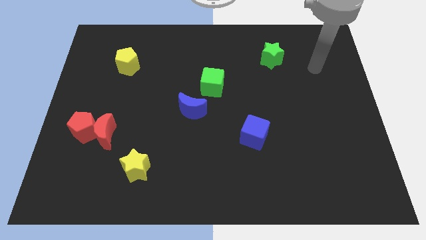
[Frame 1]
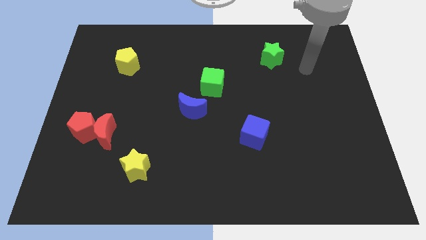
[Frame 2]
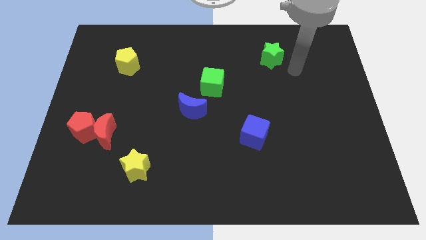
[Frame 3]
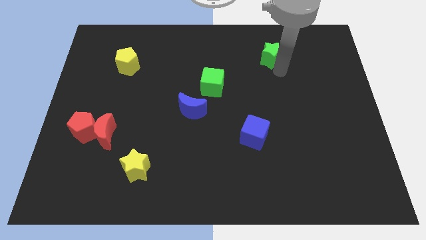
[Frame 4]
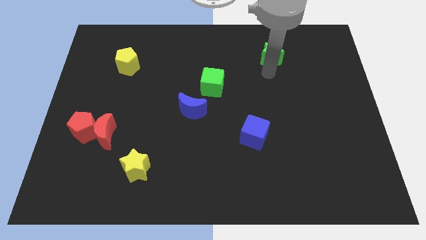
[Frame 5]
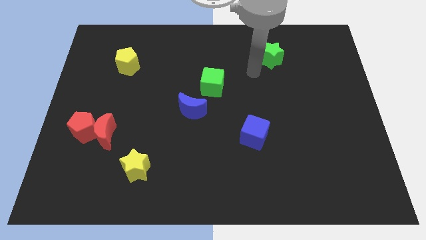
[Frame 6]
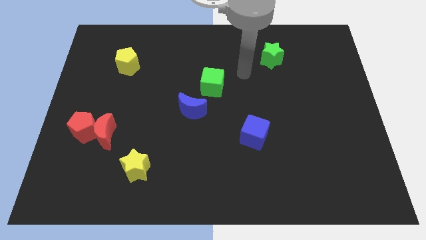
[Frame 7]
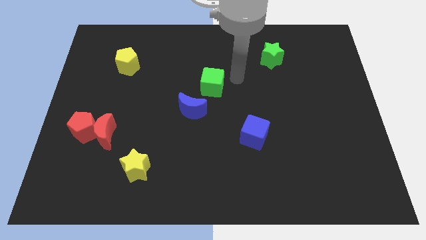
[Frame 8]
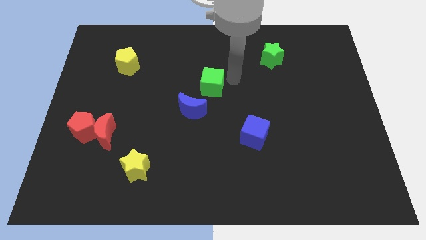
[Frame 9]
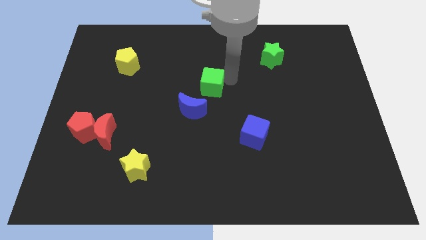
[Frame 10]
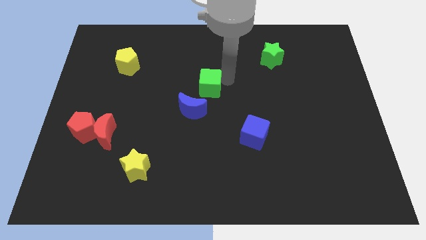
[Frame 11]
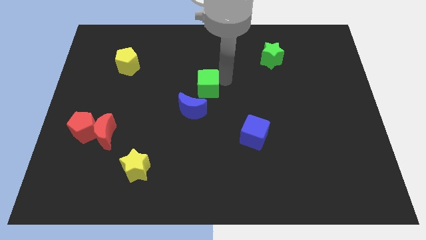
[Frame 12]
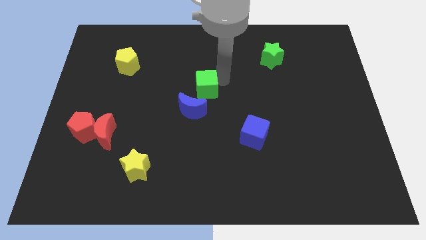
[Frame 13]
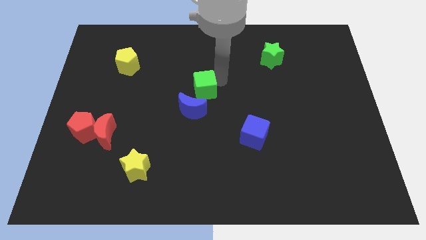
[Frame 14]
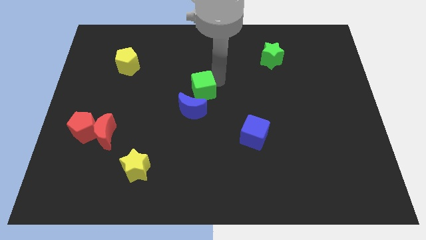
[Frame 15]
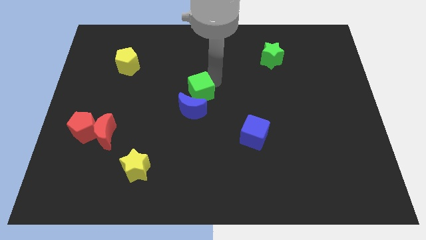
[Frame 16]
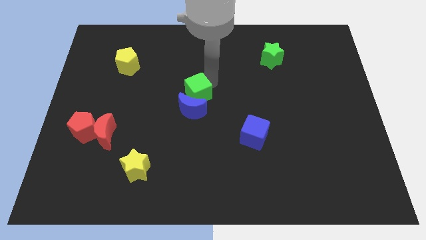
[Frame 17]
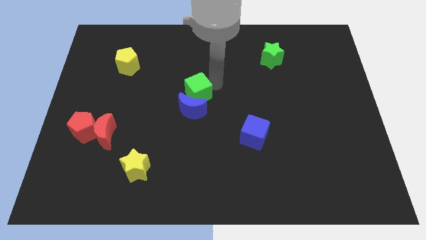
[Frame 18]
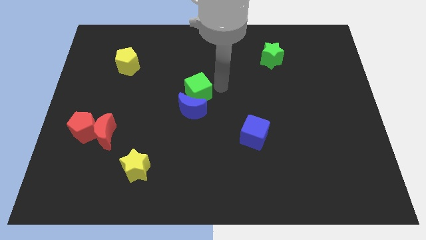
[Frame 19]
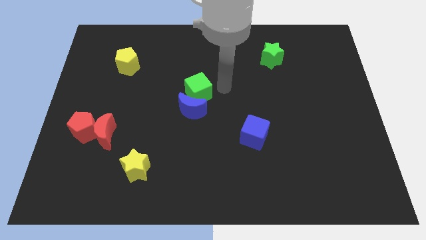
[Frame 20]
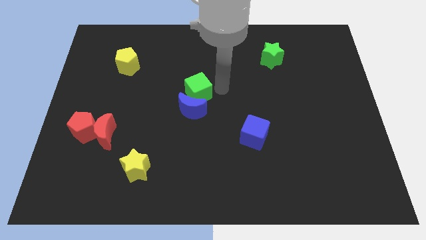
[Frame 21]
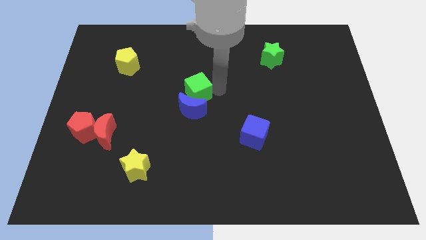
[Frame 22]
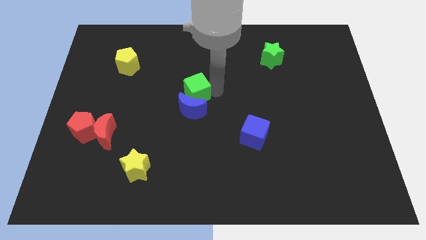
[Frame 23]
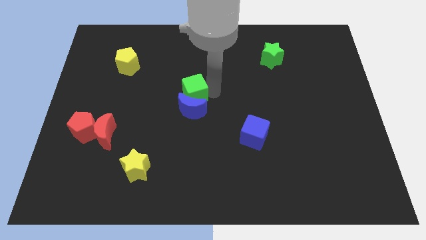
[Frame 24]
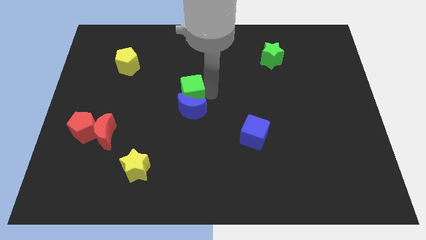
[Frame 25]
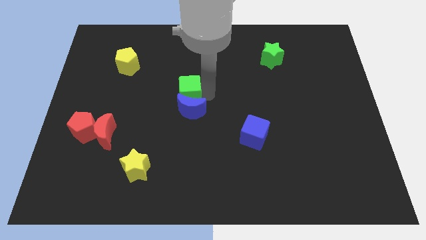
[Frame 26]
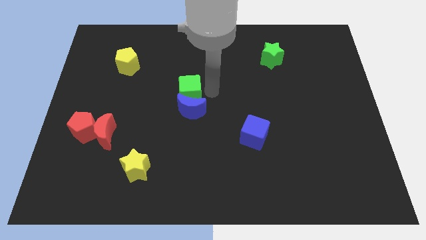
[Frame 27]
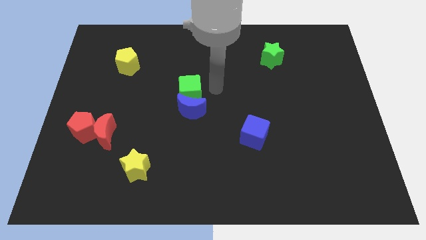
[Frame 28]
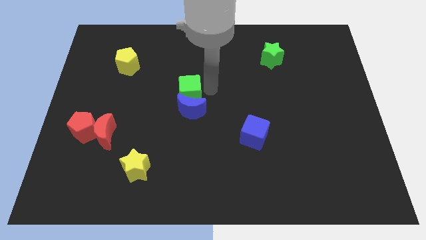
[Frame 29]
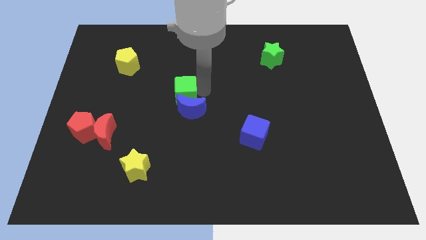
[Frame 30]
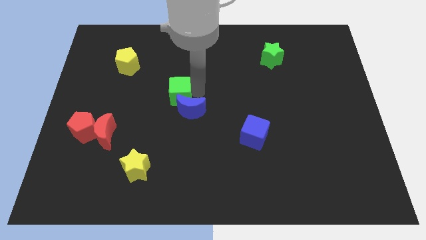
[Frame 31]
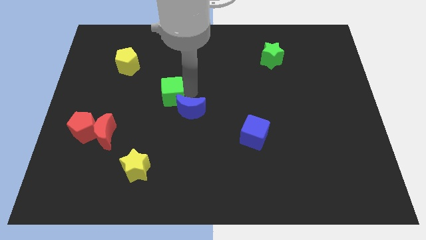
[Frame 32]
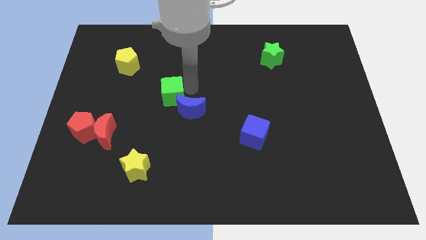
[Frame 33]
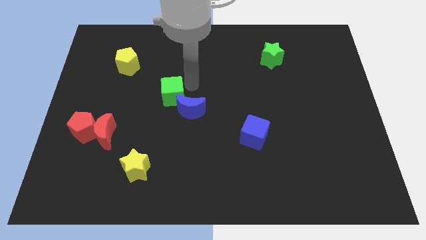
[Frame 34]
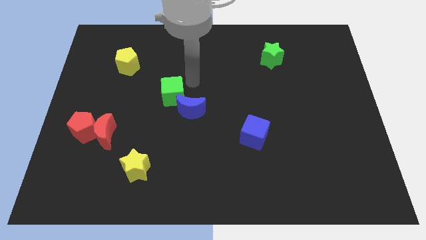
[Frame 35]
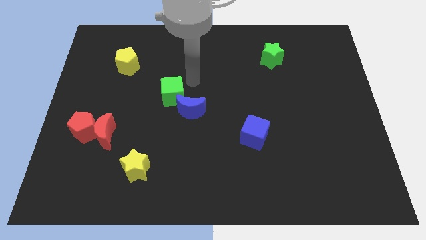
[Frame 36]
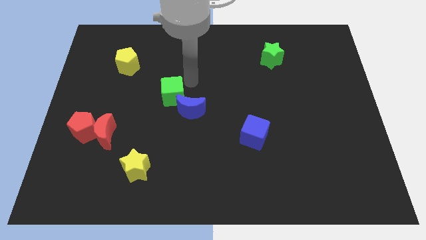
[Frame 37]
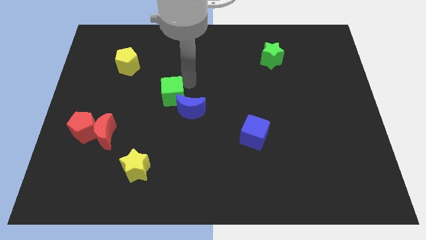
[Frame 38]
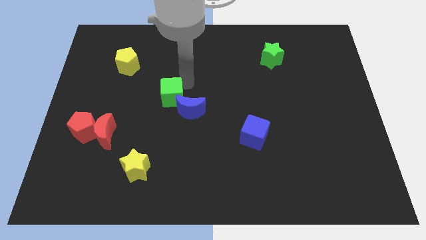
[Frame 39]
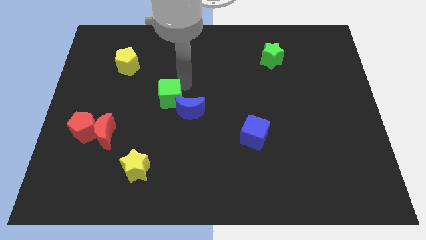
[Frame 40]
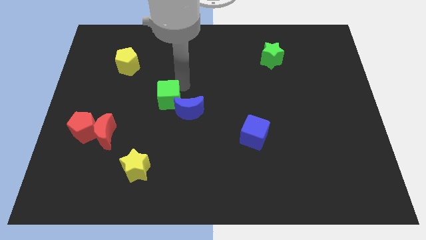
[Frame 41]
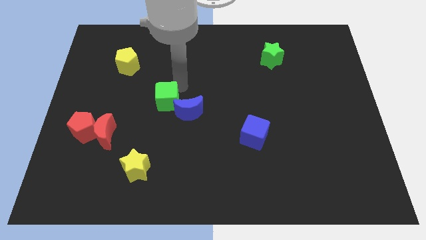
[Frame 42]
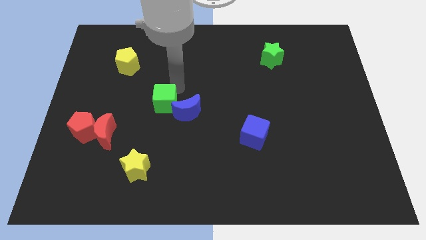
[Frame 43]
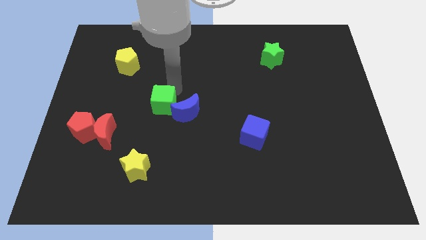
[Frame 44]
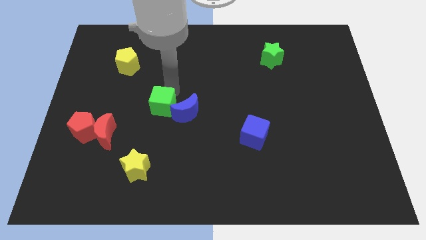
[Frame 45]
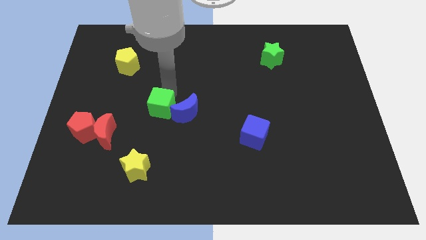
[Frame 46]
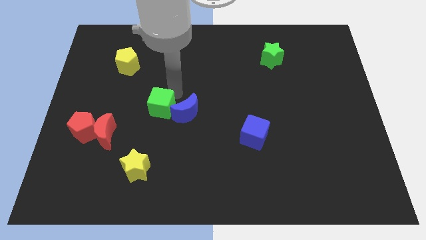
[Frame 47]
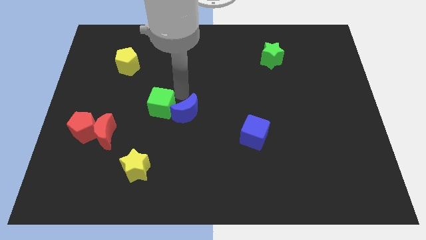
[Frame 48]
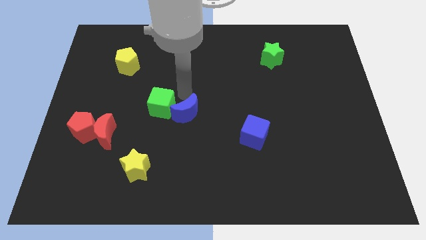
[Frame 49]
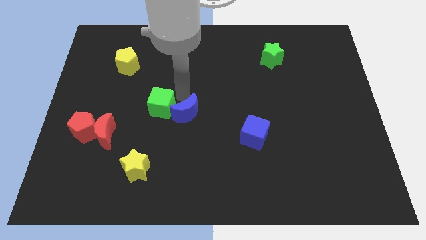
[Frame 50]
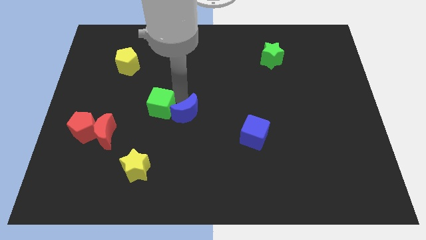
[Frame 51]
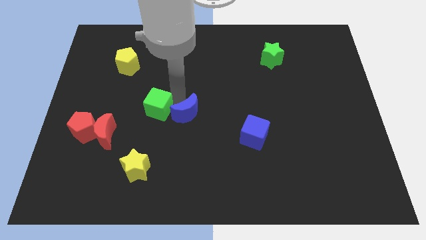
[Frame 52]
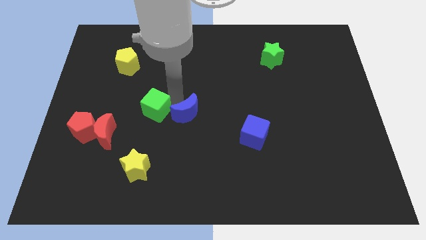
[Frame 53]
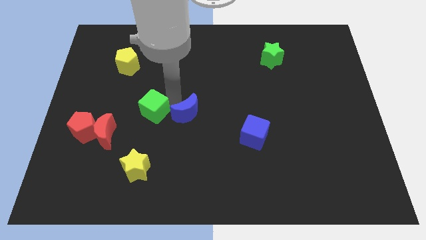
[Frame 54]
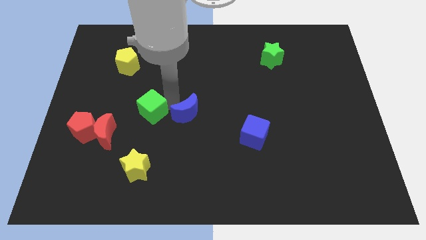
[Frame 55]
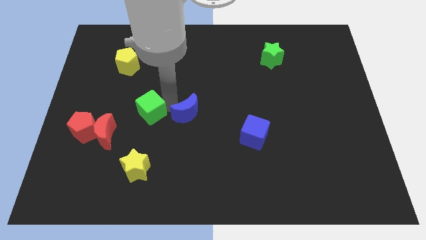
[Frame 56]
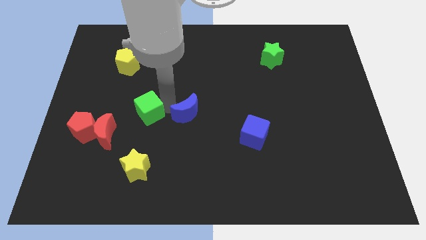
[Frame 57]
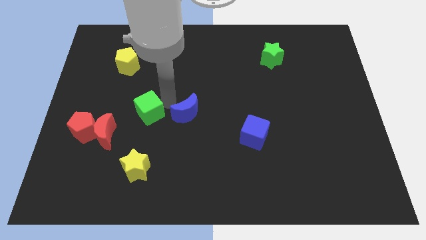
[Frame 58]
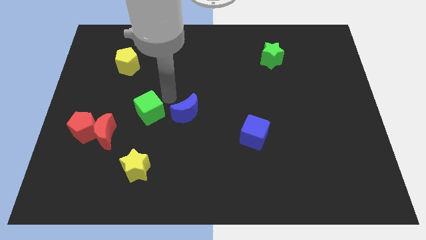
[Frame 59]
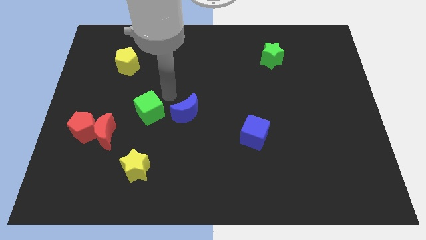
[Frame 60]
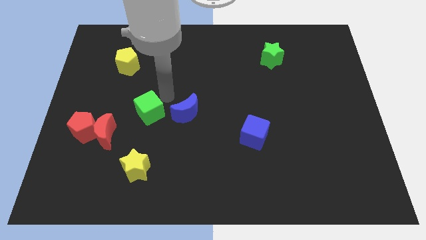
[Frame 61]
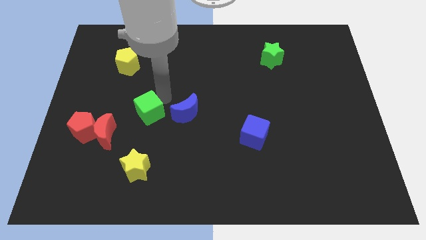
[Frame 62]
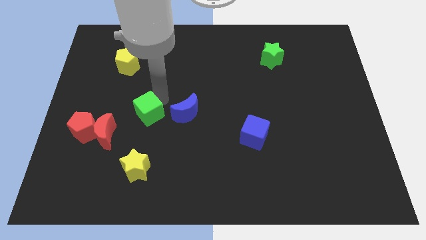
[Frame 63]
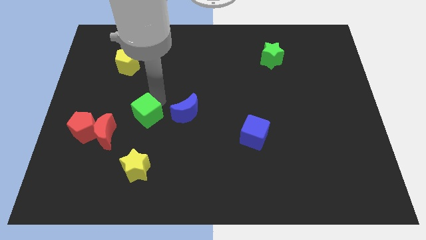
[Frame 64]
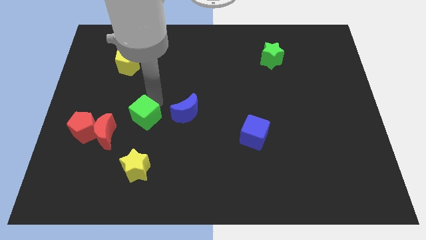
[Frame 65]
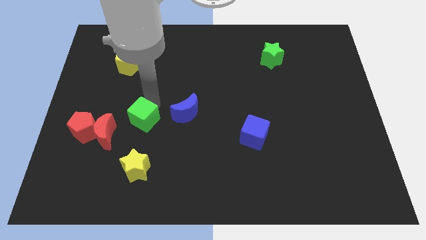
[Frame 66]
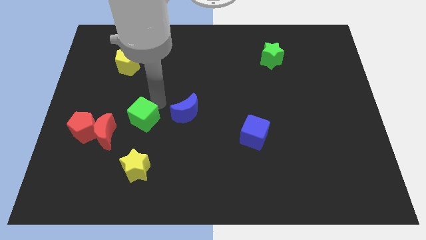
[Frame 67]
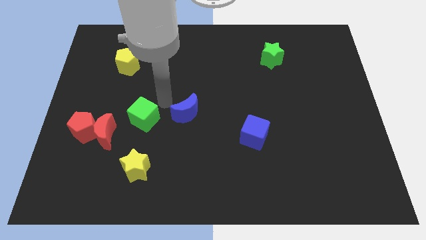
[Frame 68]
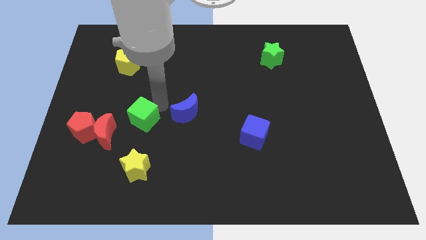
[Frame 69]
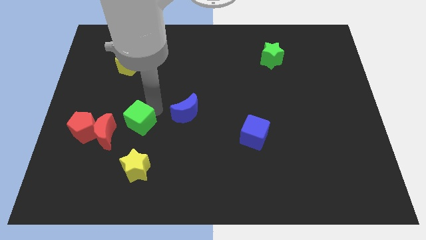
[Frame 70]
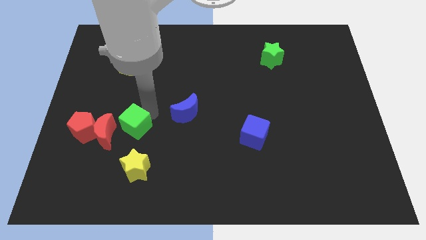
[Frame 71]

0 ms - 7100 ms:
push the green cube diagonally down and left

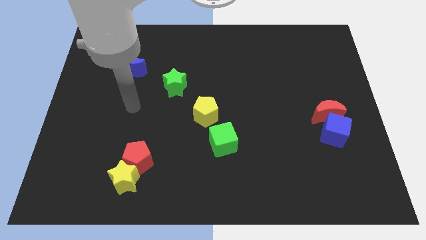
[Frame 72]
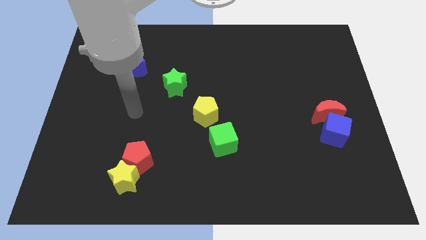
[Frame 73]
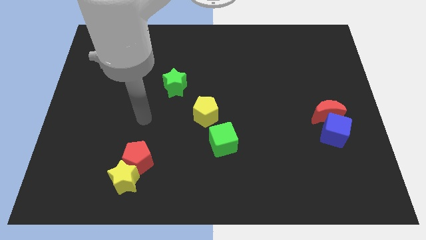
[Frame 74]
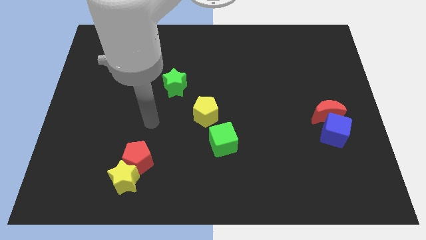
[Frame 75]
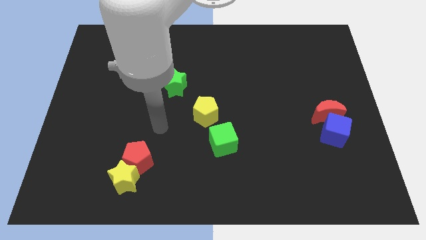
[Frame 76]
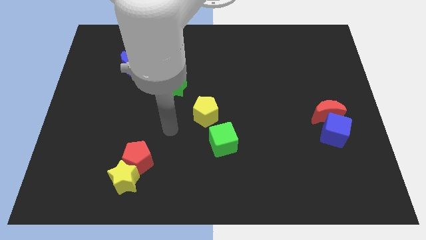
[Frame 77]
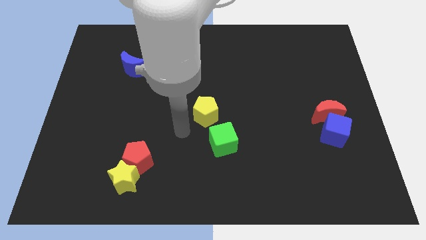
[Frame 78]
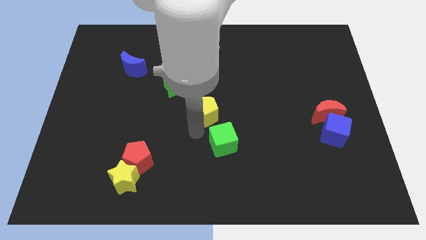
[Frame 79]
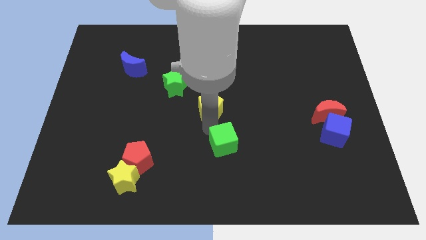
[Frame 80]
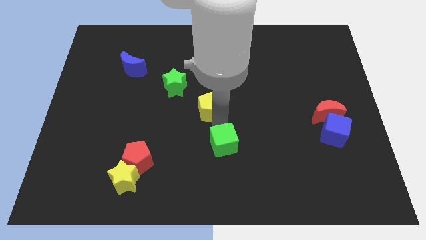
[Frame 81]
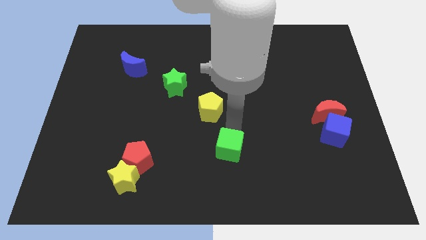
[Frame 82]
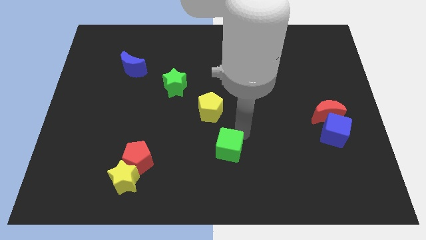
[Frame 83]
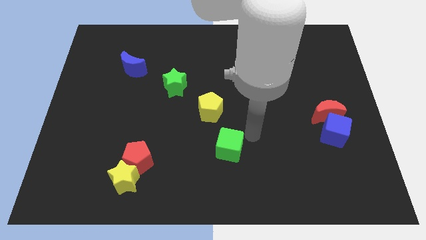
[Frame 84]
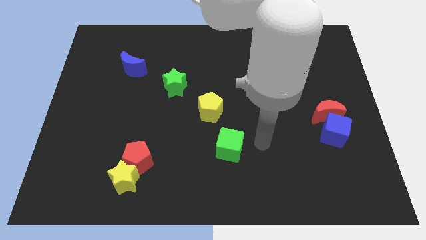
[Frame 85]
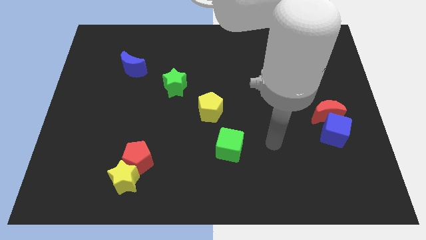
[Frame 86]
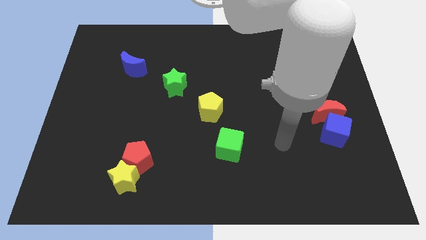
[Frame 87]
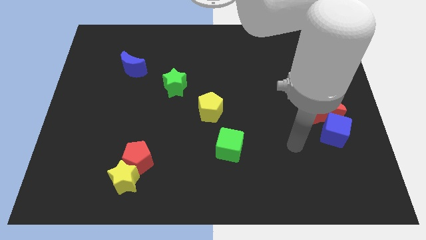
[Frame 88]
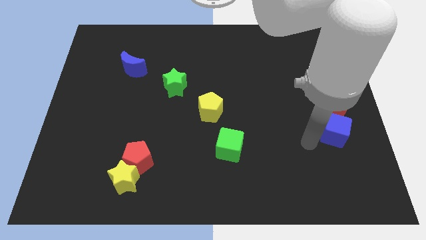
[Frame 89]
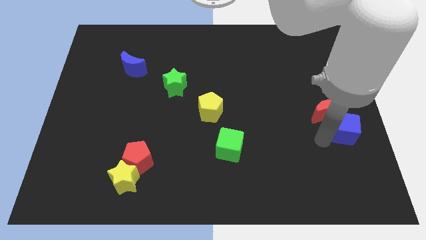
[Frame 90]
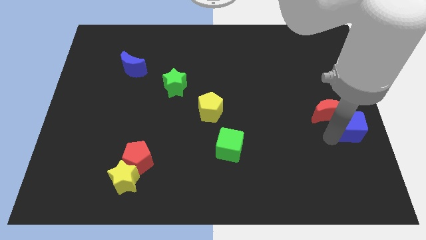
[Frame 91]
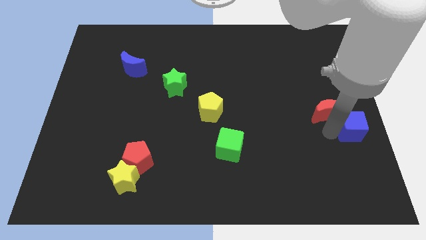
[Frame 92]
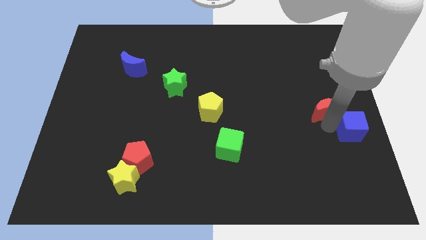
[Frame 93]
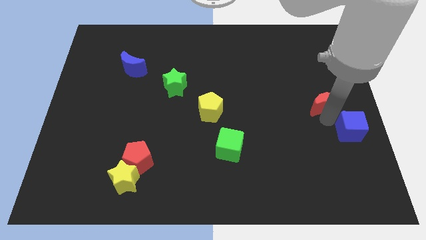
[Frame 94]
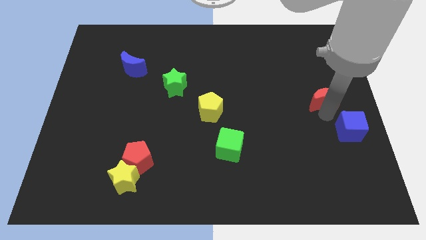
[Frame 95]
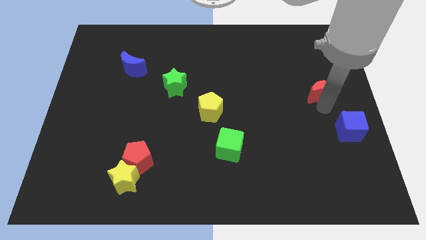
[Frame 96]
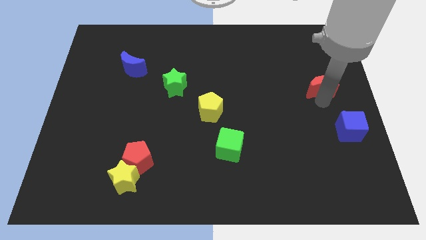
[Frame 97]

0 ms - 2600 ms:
slightly push the red moon up
